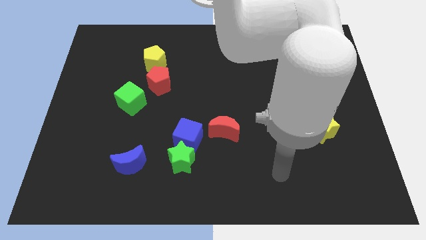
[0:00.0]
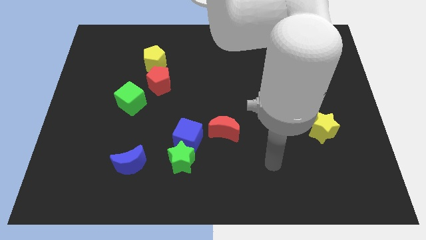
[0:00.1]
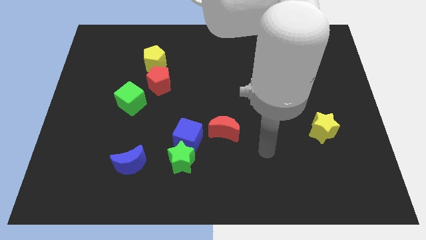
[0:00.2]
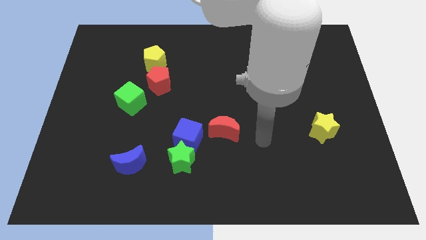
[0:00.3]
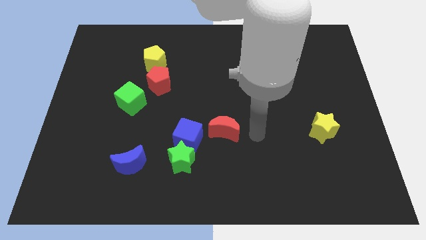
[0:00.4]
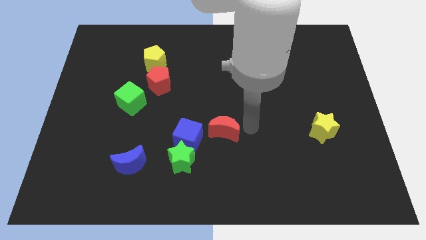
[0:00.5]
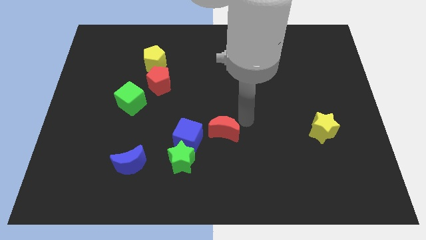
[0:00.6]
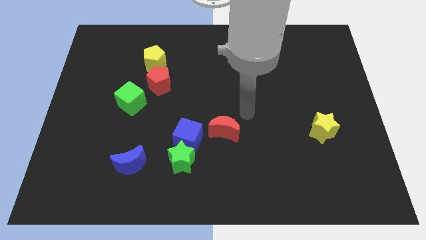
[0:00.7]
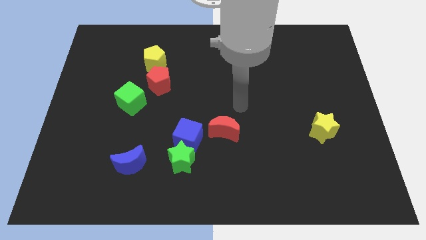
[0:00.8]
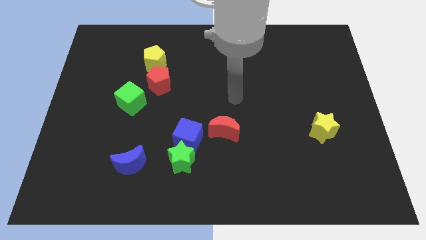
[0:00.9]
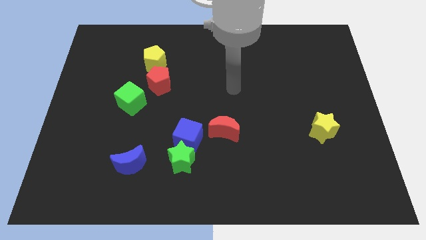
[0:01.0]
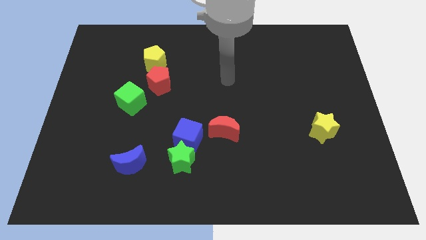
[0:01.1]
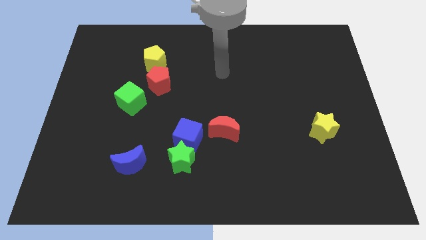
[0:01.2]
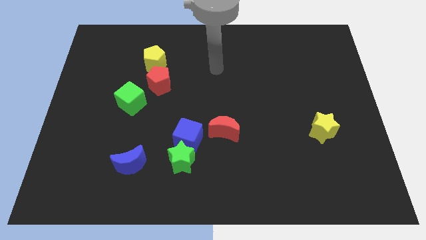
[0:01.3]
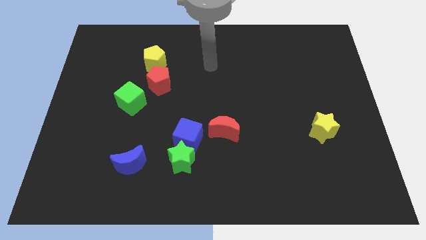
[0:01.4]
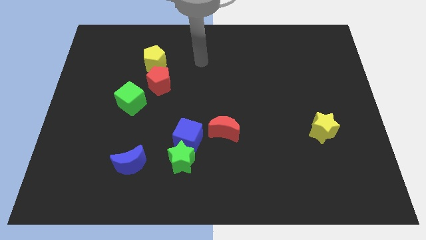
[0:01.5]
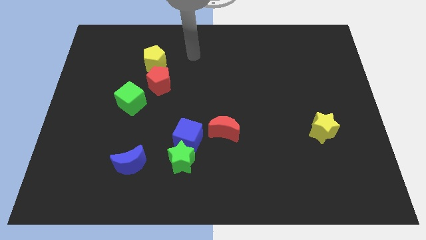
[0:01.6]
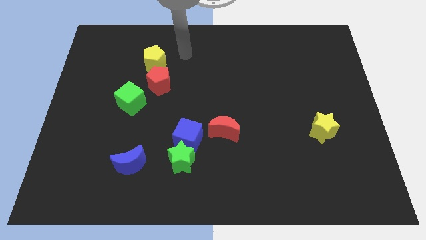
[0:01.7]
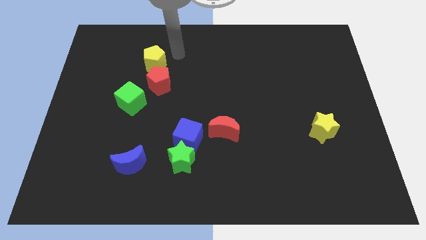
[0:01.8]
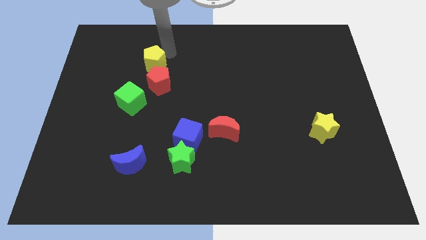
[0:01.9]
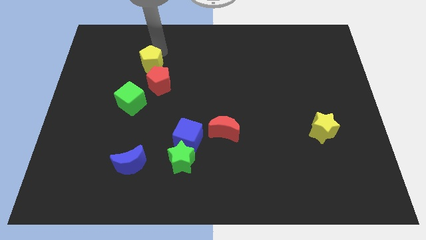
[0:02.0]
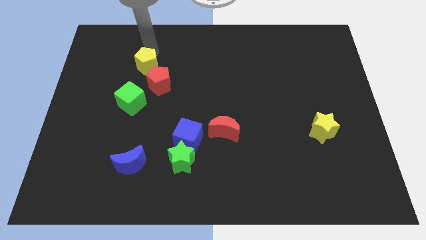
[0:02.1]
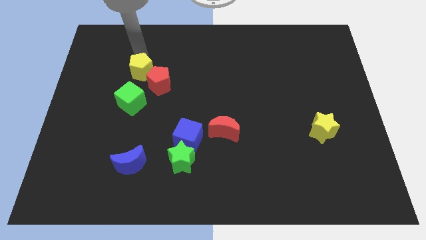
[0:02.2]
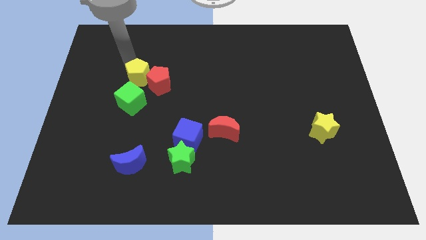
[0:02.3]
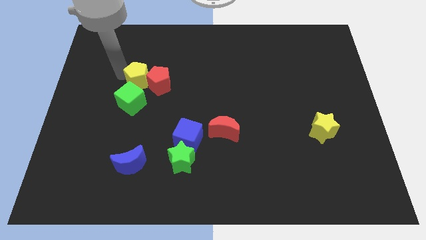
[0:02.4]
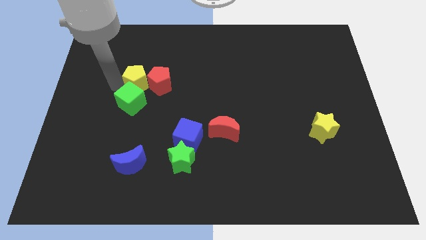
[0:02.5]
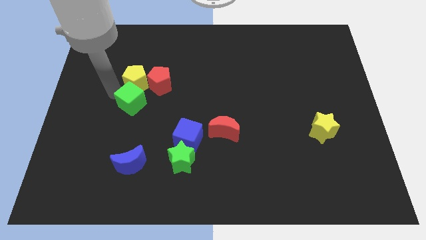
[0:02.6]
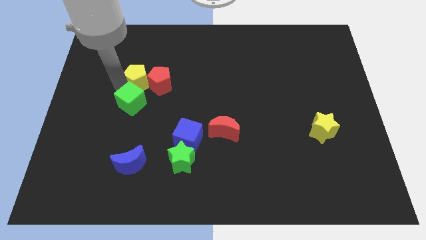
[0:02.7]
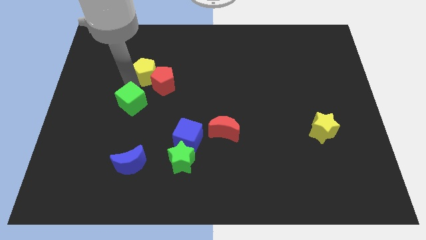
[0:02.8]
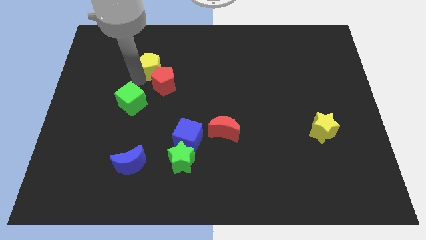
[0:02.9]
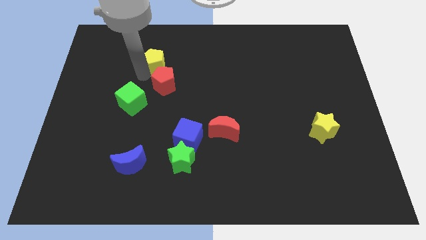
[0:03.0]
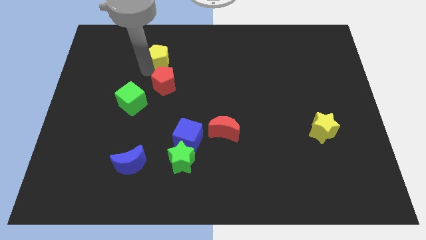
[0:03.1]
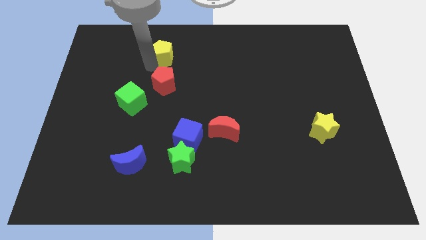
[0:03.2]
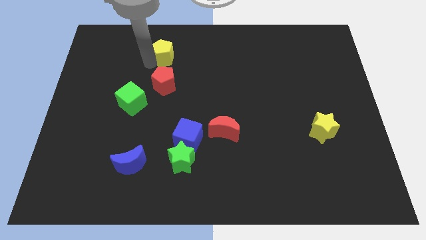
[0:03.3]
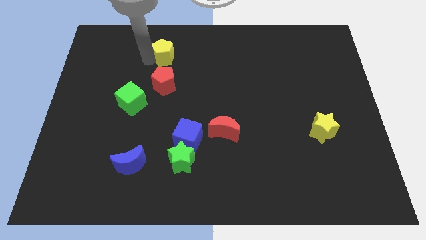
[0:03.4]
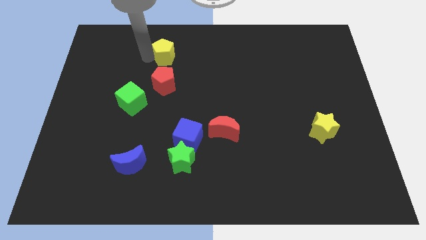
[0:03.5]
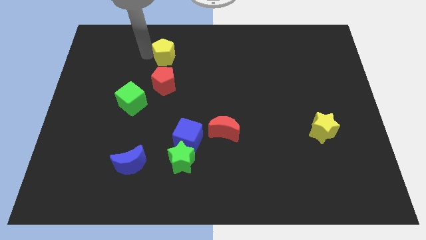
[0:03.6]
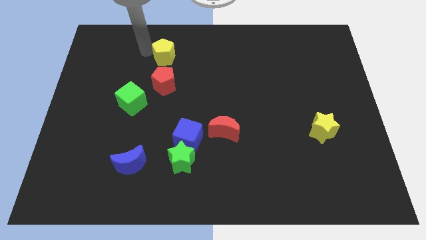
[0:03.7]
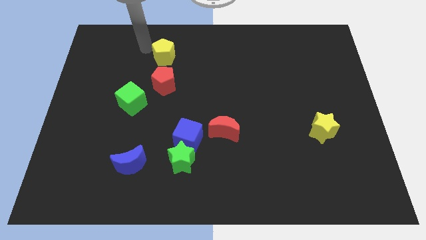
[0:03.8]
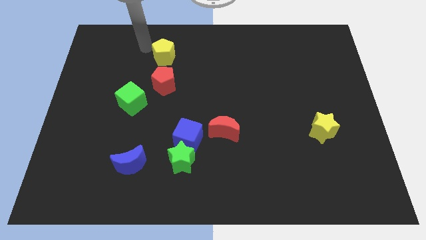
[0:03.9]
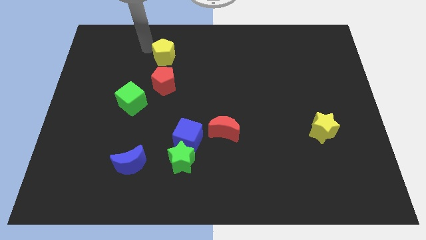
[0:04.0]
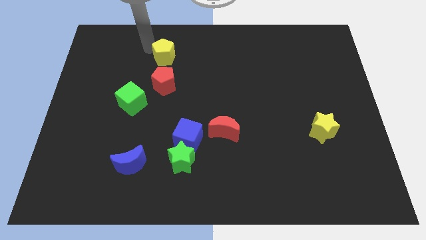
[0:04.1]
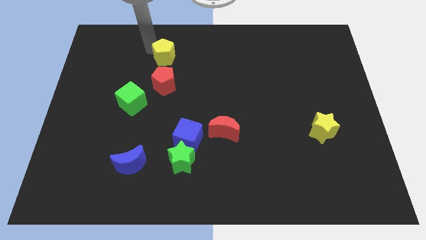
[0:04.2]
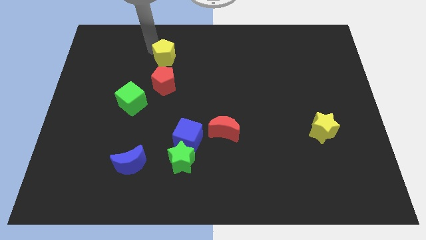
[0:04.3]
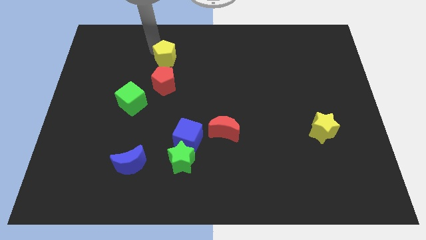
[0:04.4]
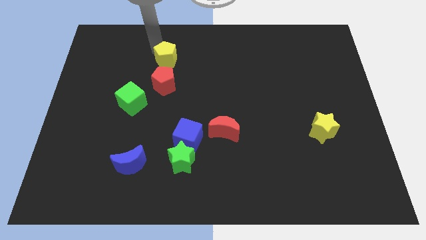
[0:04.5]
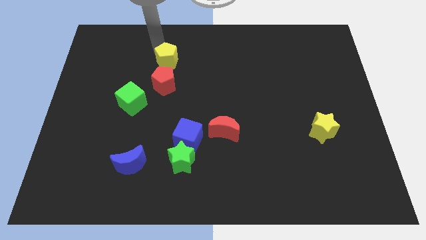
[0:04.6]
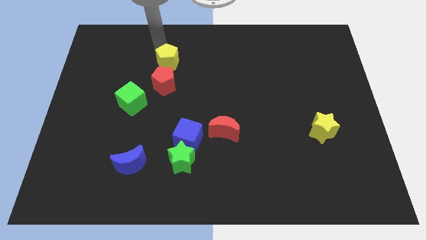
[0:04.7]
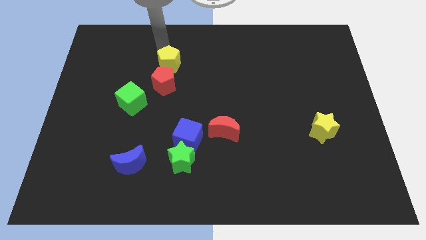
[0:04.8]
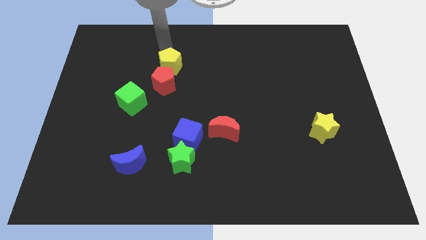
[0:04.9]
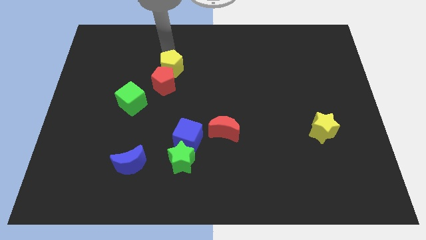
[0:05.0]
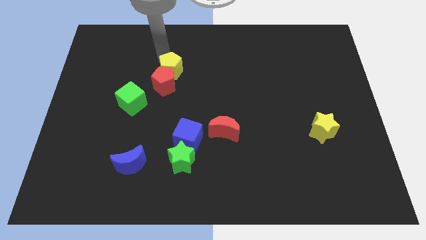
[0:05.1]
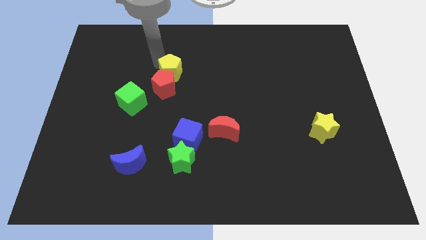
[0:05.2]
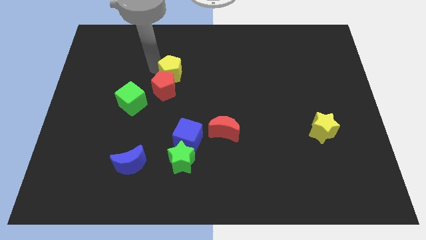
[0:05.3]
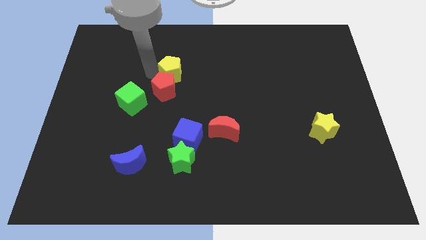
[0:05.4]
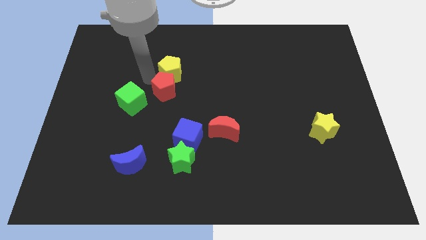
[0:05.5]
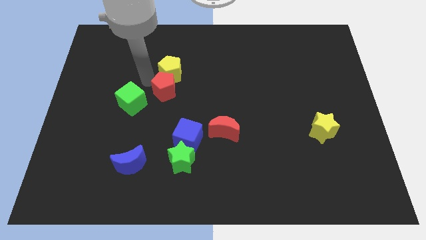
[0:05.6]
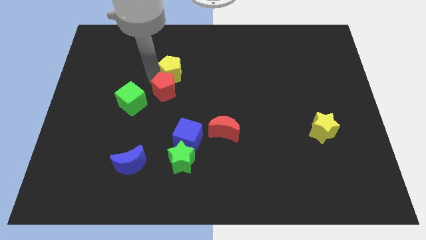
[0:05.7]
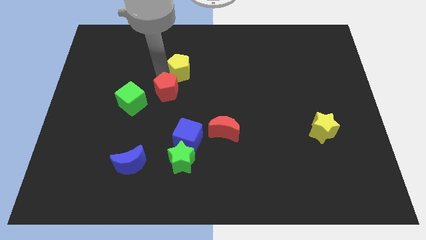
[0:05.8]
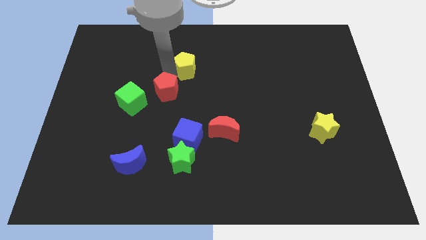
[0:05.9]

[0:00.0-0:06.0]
push the yellow pentagon a bit to the right

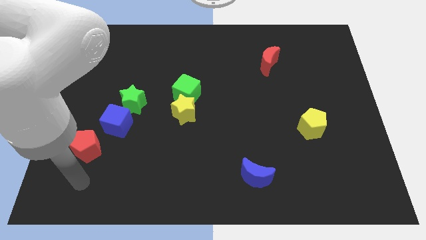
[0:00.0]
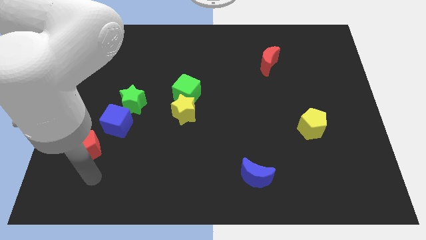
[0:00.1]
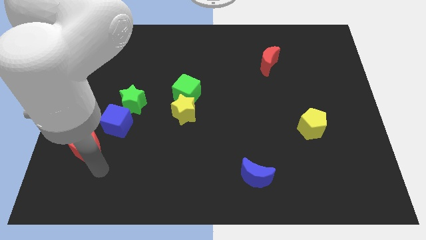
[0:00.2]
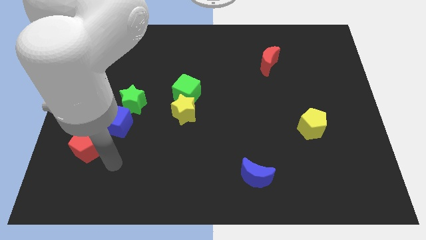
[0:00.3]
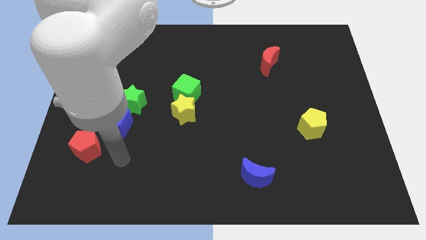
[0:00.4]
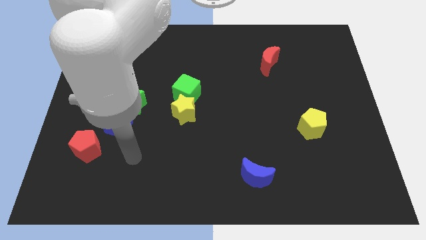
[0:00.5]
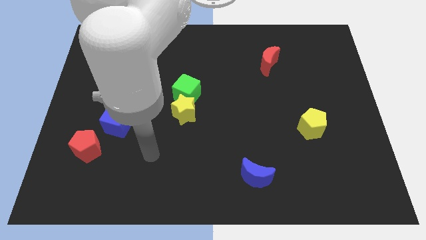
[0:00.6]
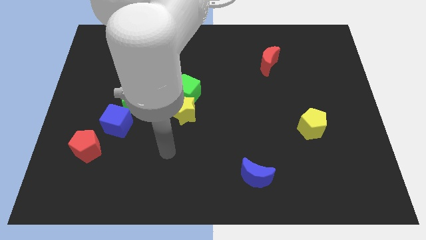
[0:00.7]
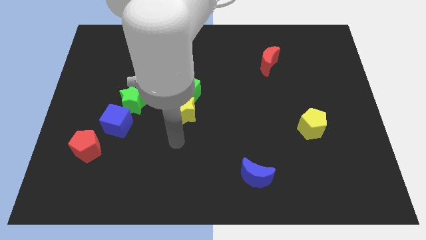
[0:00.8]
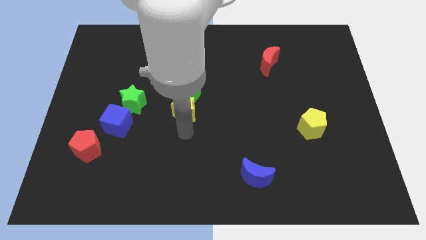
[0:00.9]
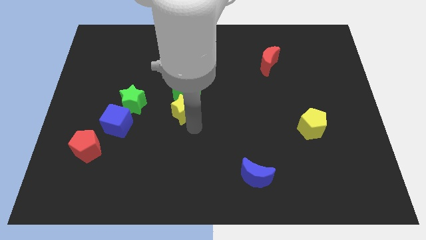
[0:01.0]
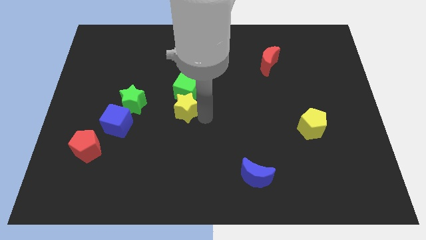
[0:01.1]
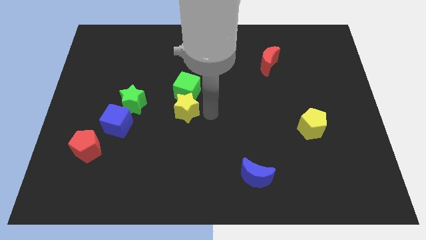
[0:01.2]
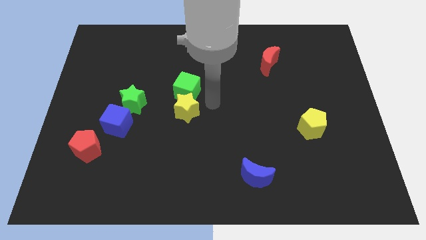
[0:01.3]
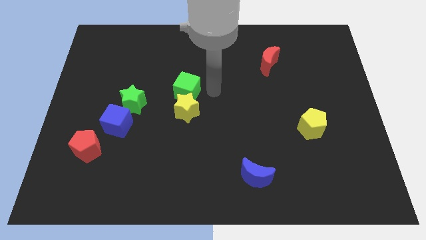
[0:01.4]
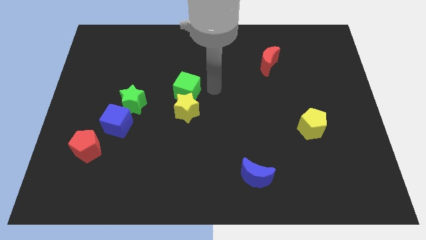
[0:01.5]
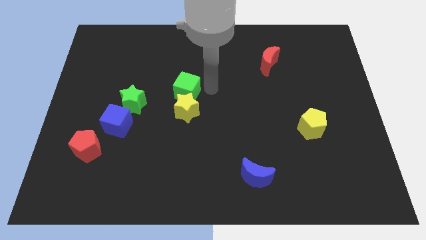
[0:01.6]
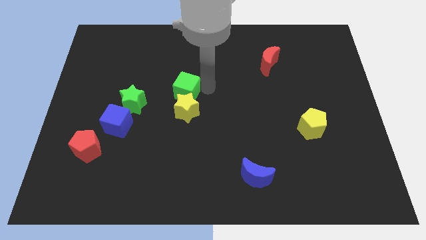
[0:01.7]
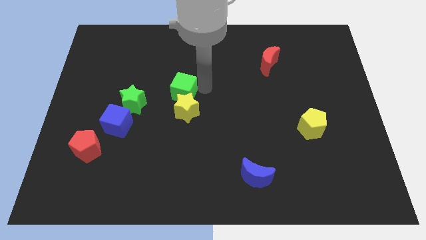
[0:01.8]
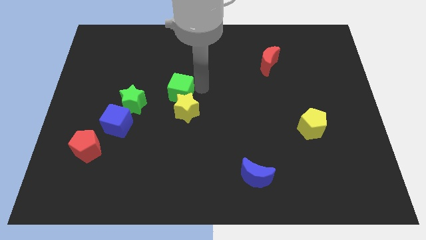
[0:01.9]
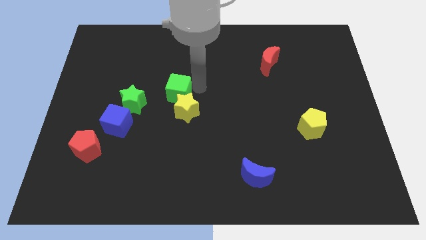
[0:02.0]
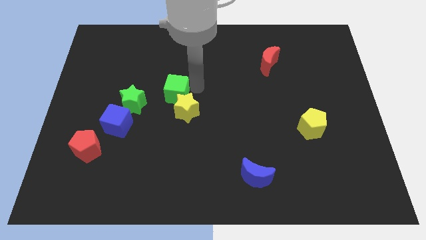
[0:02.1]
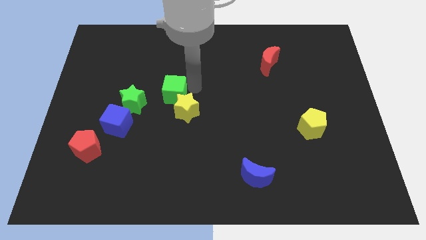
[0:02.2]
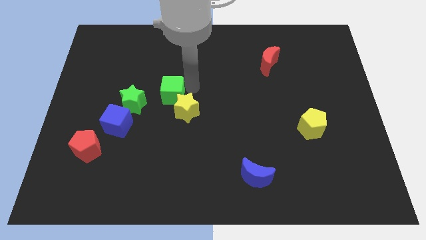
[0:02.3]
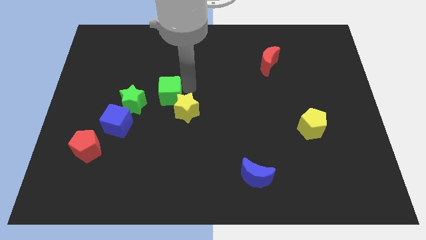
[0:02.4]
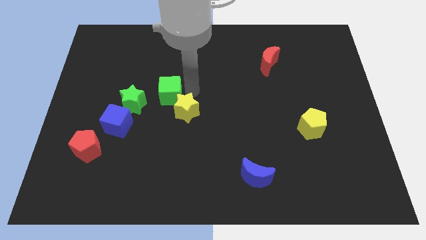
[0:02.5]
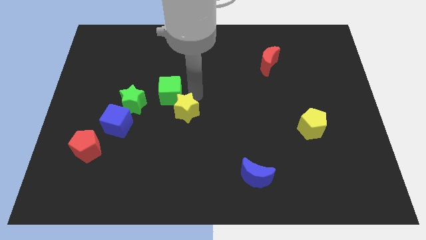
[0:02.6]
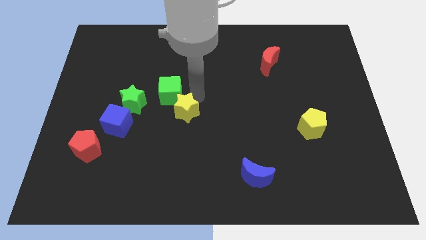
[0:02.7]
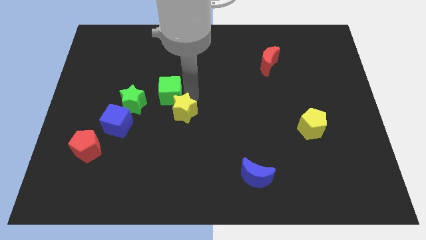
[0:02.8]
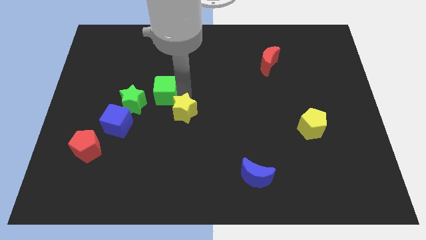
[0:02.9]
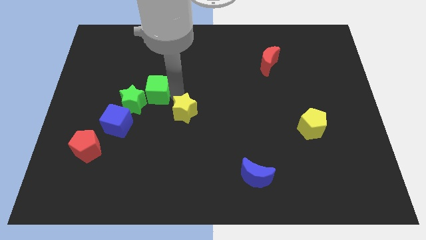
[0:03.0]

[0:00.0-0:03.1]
slightly slide the green cube to the left
